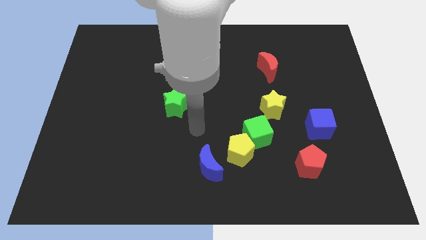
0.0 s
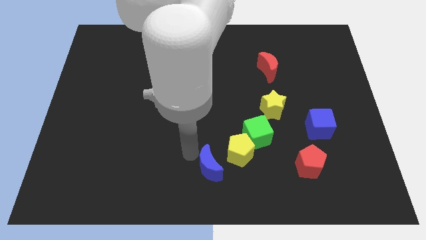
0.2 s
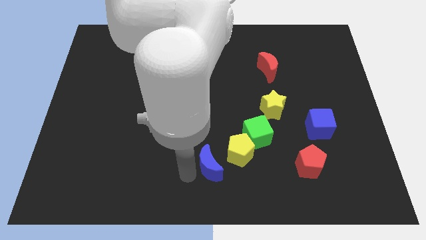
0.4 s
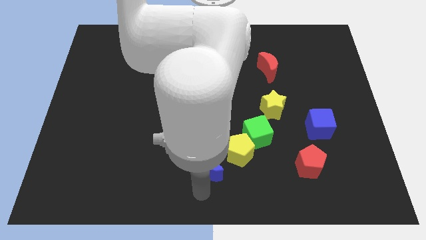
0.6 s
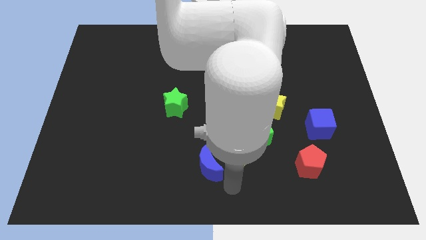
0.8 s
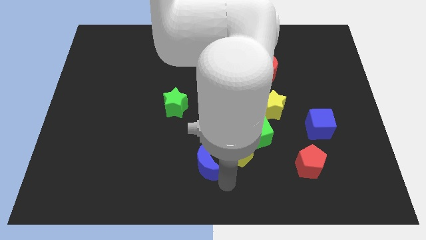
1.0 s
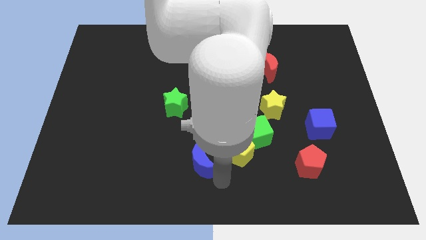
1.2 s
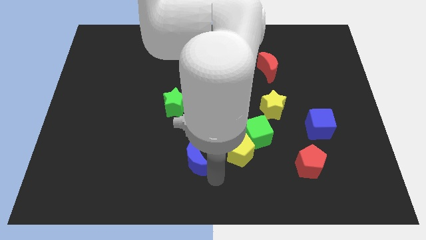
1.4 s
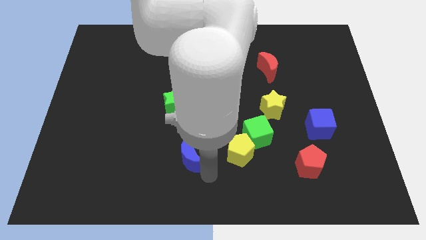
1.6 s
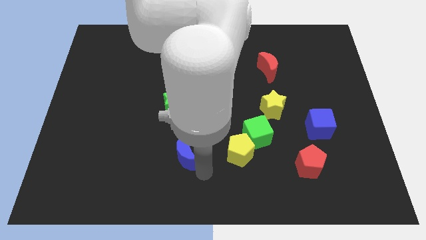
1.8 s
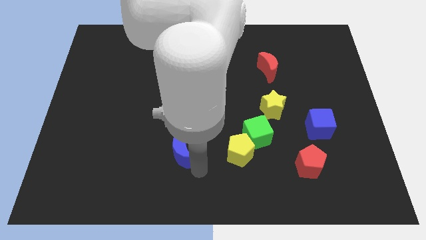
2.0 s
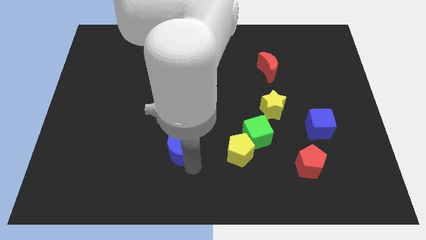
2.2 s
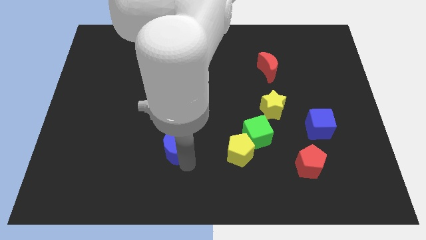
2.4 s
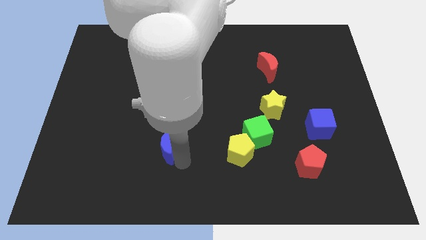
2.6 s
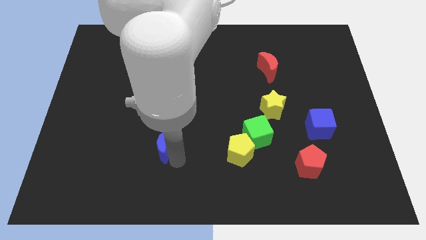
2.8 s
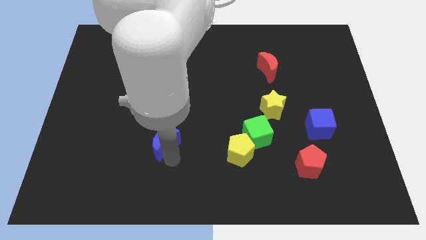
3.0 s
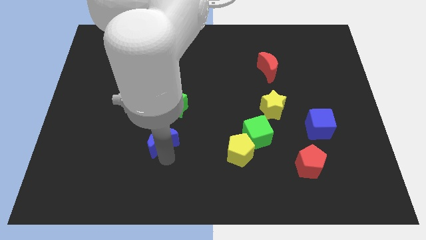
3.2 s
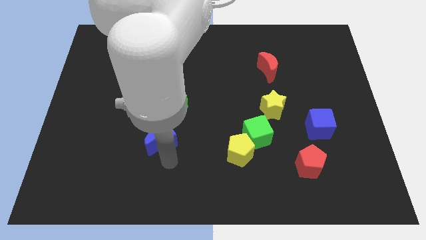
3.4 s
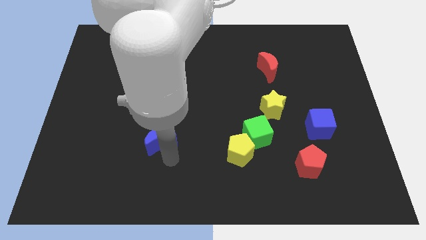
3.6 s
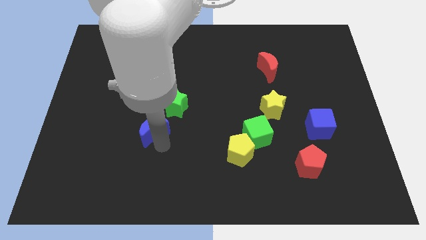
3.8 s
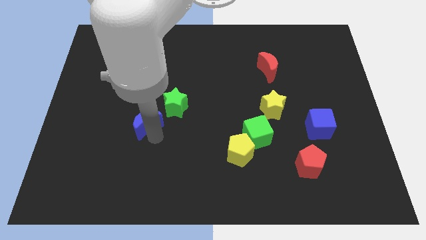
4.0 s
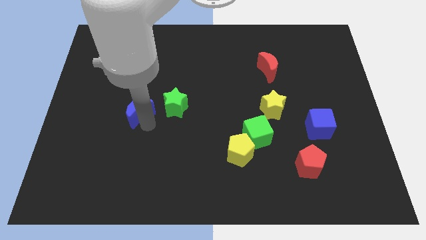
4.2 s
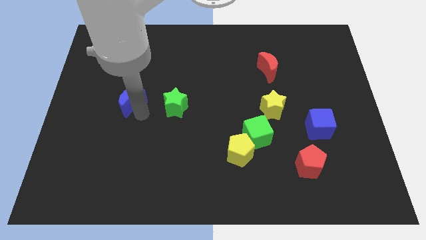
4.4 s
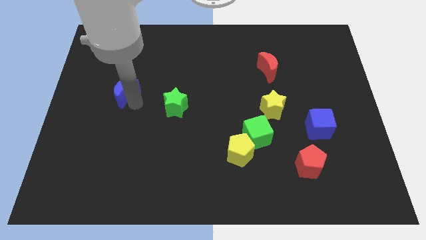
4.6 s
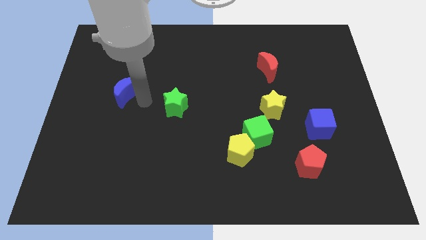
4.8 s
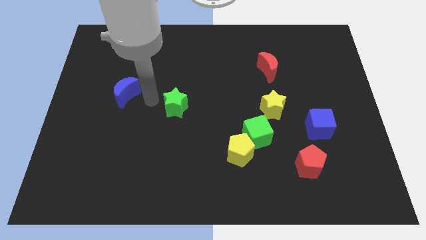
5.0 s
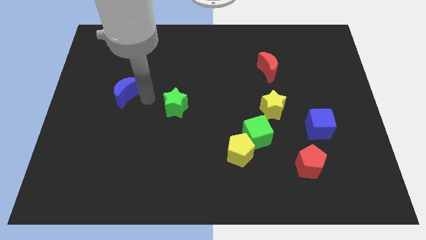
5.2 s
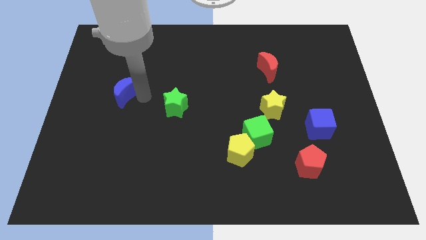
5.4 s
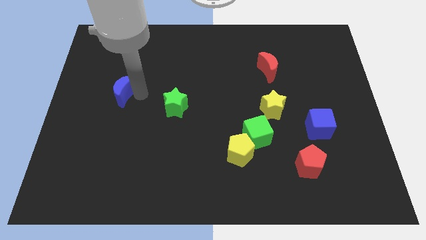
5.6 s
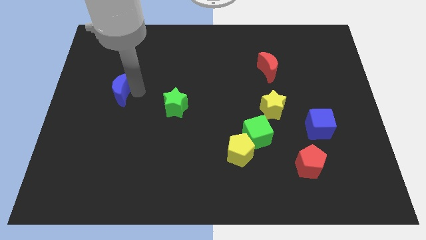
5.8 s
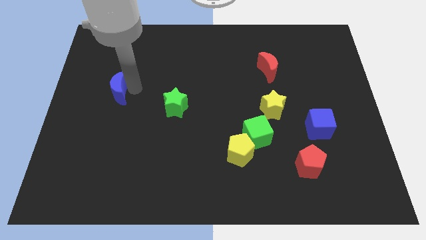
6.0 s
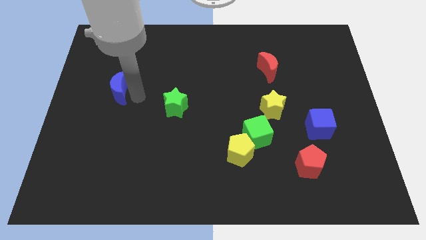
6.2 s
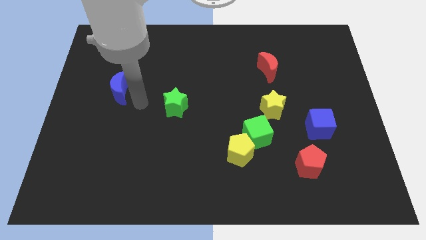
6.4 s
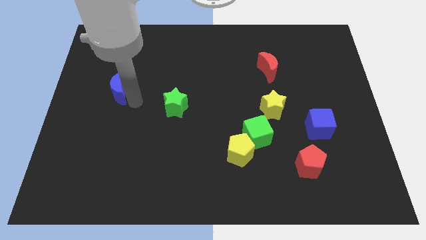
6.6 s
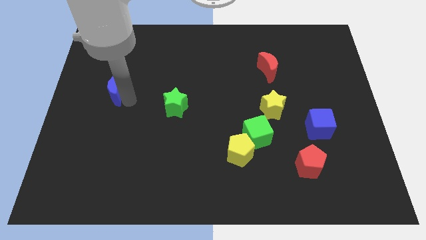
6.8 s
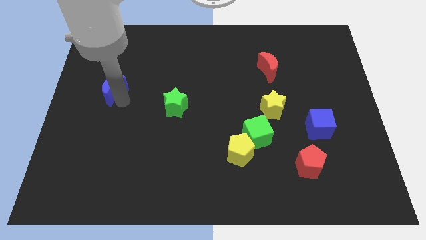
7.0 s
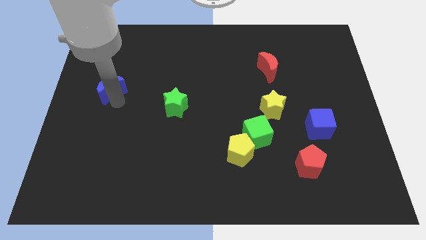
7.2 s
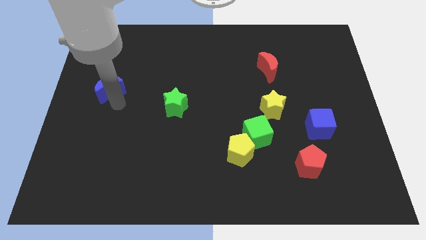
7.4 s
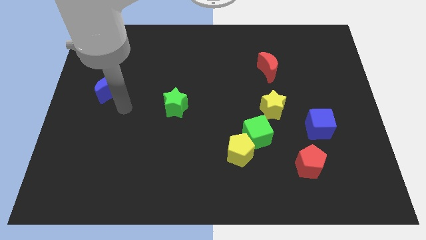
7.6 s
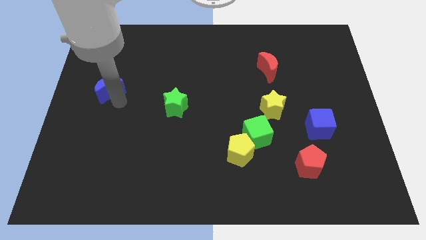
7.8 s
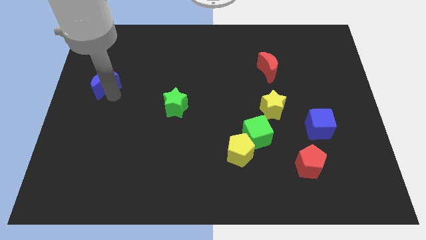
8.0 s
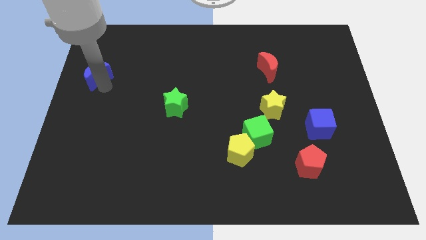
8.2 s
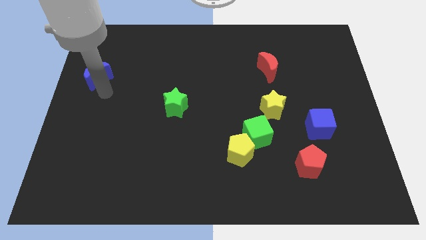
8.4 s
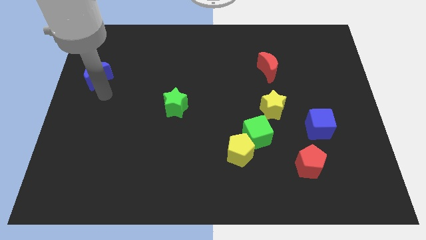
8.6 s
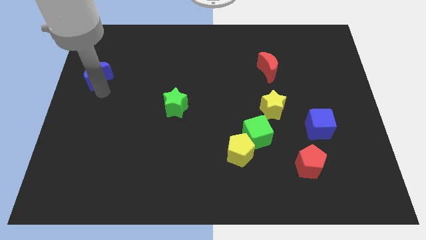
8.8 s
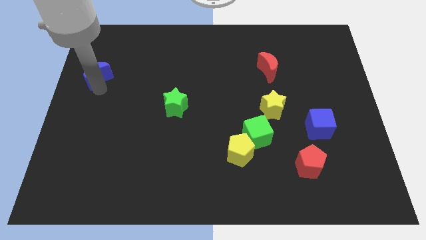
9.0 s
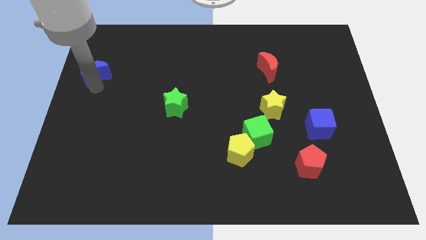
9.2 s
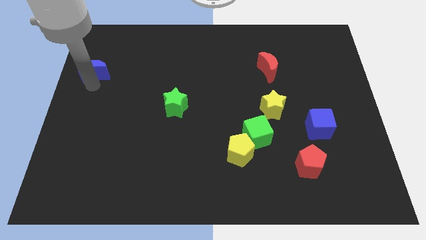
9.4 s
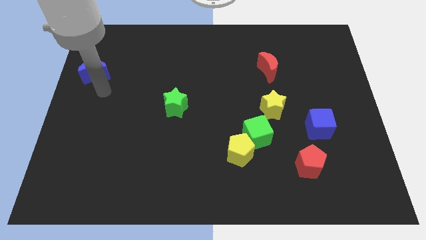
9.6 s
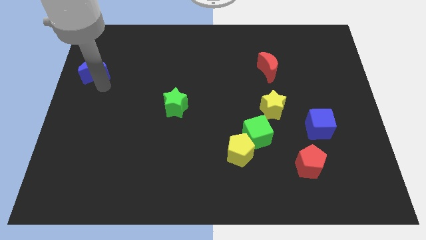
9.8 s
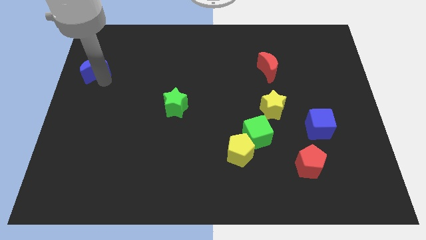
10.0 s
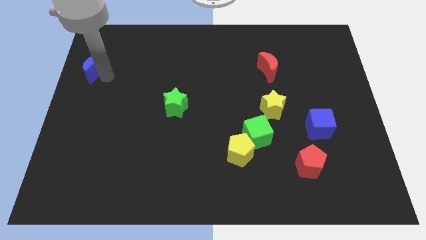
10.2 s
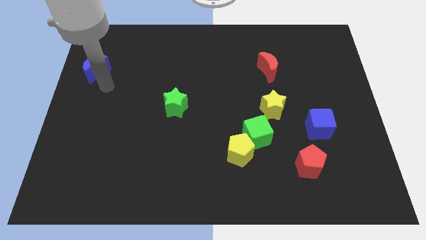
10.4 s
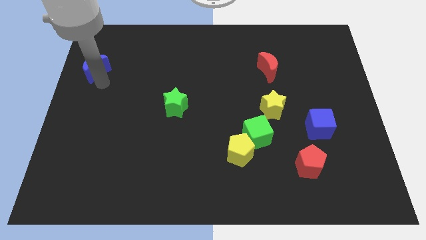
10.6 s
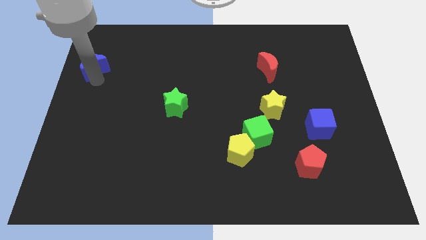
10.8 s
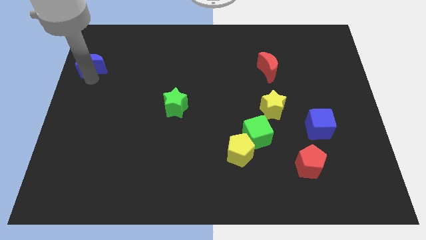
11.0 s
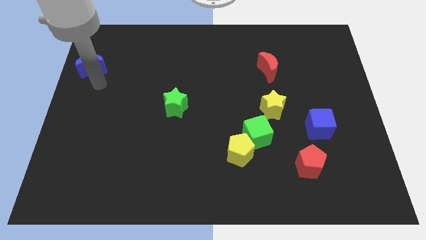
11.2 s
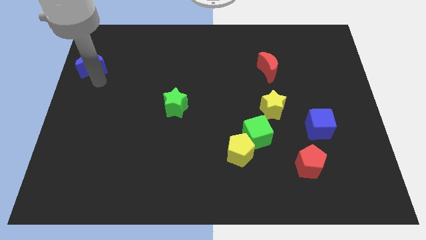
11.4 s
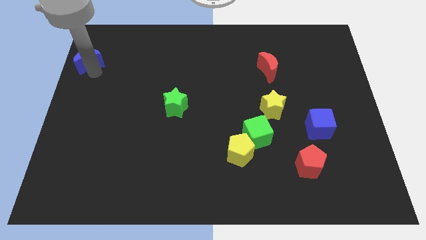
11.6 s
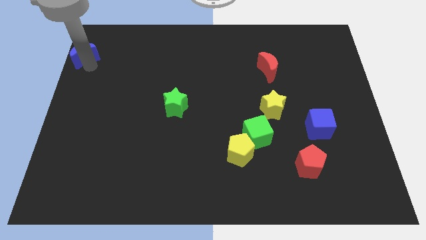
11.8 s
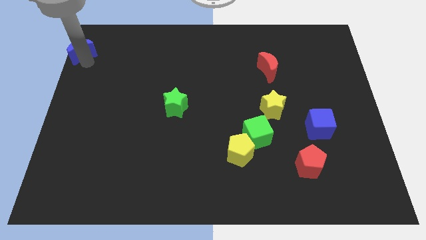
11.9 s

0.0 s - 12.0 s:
move the blue moon to the top left

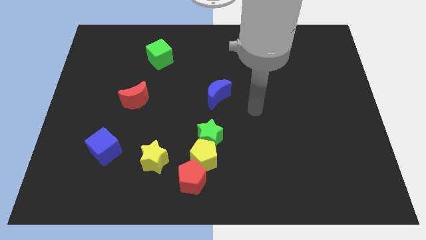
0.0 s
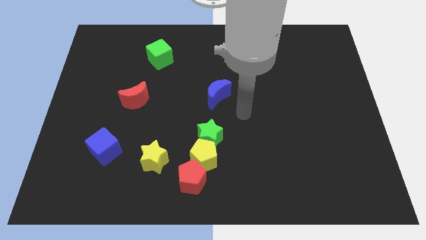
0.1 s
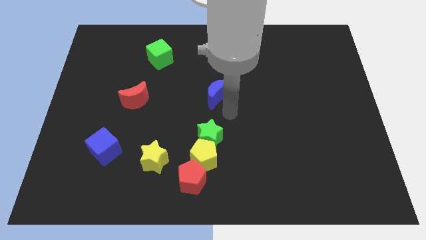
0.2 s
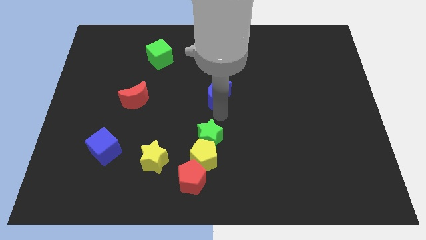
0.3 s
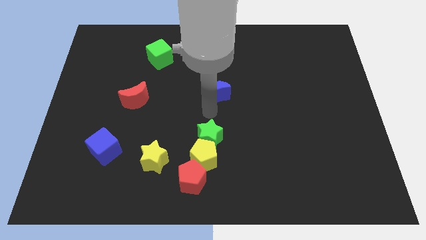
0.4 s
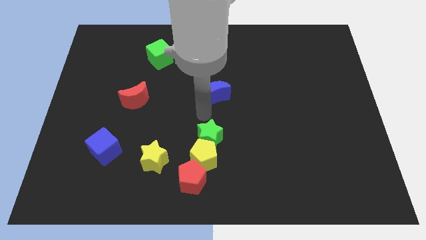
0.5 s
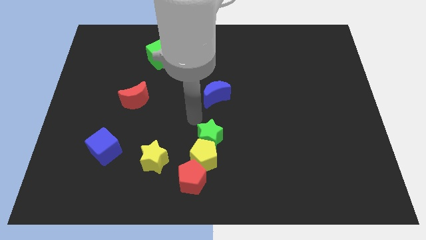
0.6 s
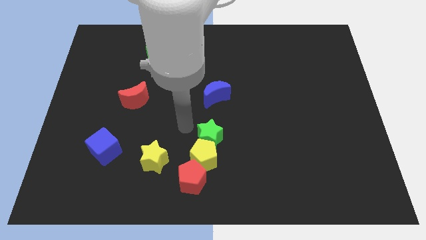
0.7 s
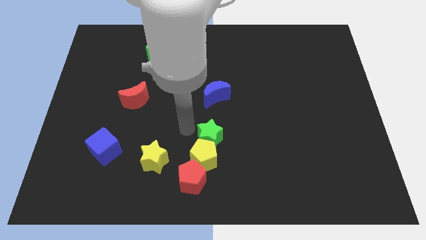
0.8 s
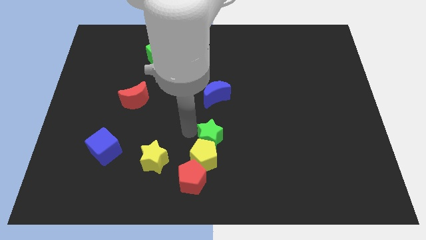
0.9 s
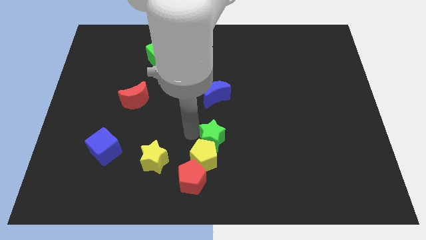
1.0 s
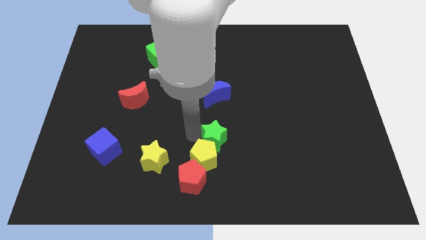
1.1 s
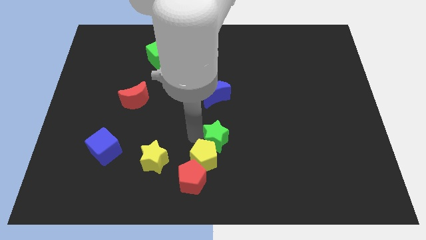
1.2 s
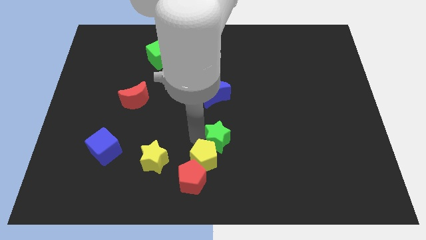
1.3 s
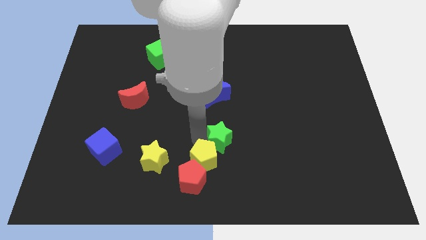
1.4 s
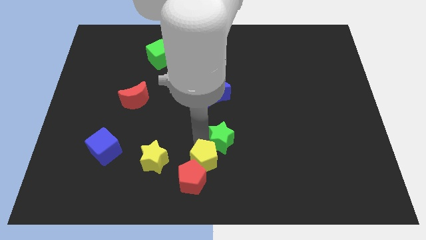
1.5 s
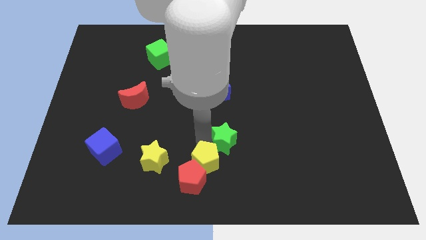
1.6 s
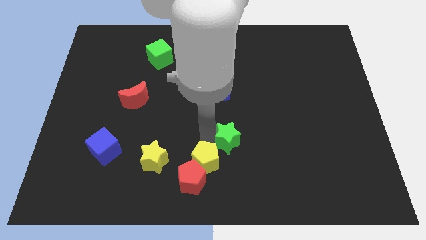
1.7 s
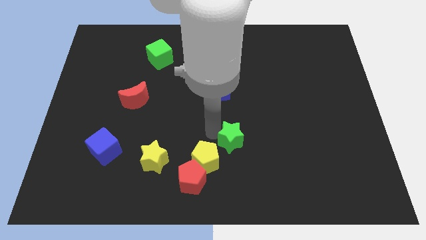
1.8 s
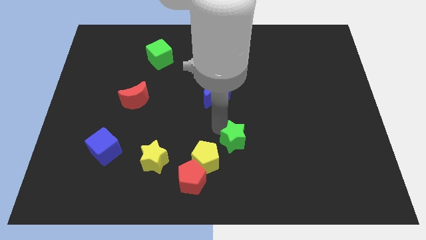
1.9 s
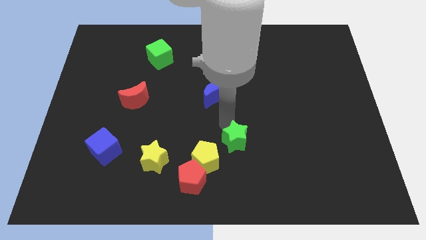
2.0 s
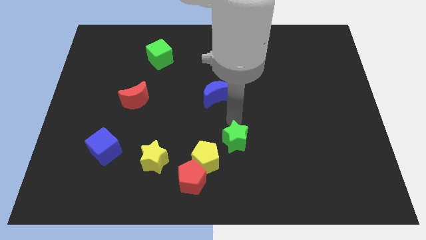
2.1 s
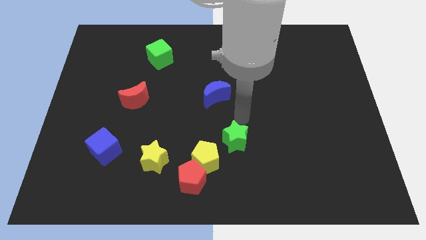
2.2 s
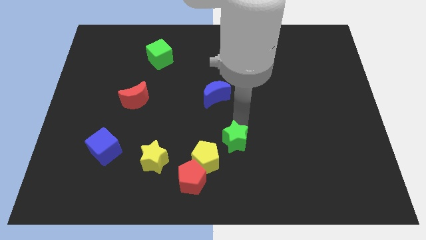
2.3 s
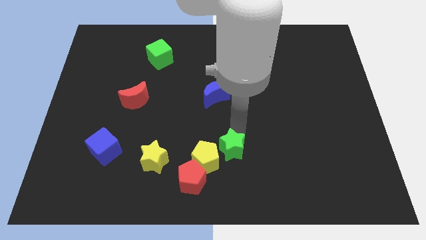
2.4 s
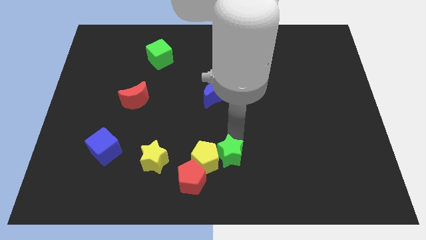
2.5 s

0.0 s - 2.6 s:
put the green star to the bottom side
